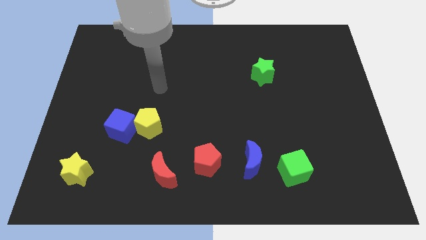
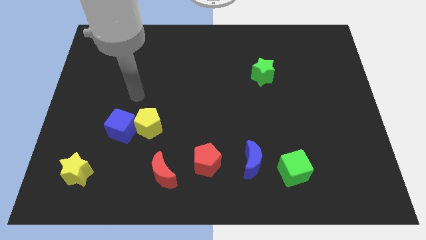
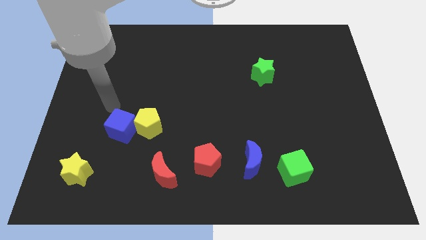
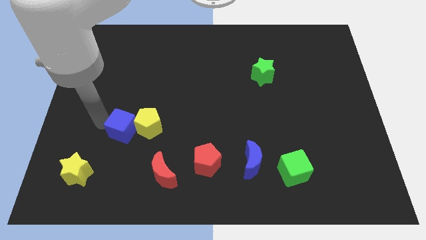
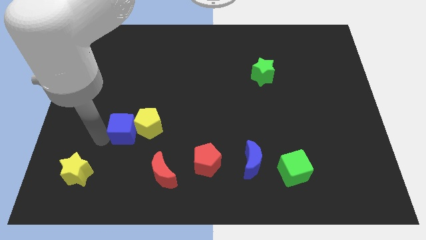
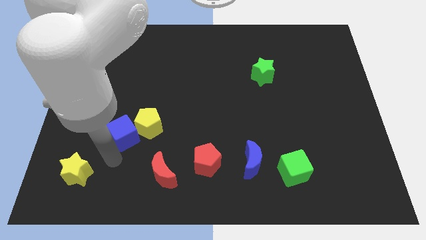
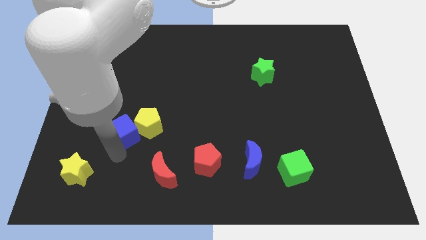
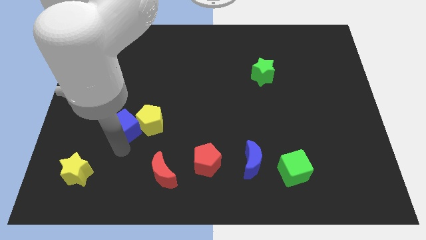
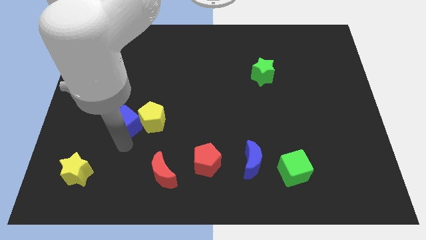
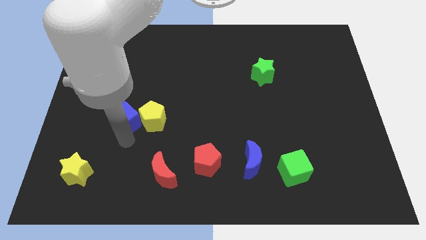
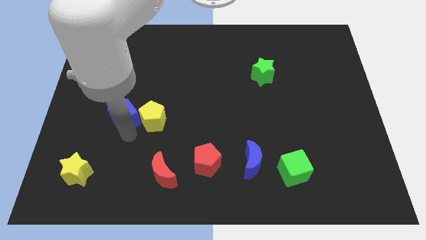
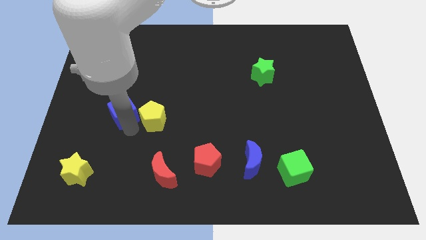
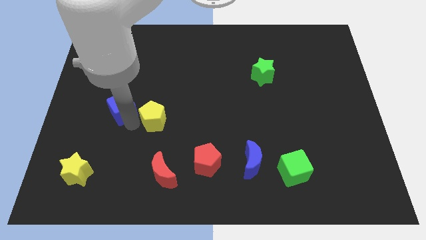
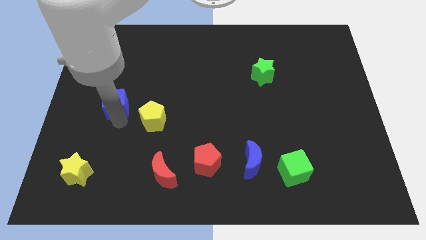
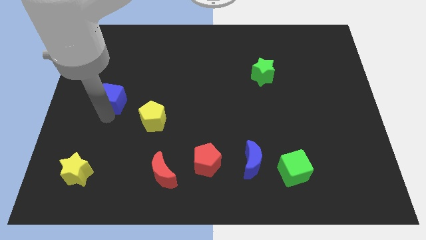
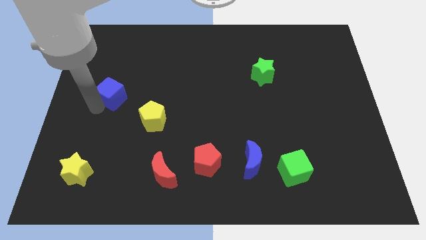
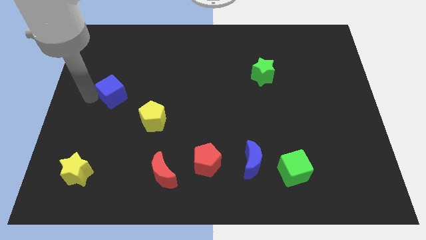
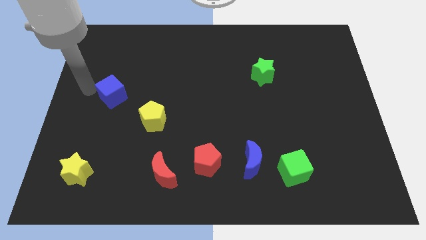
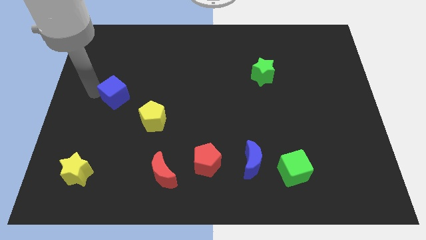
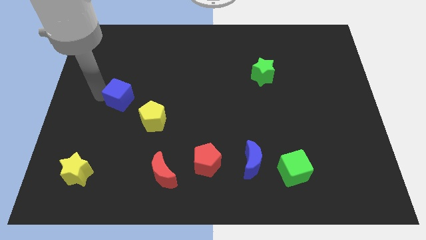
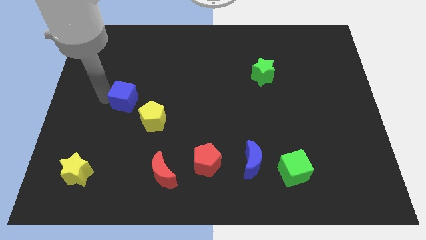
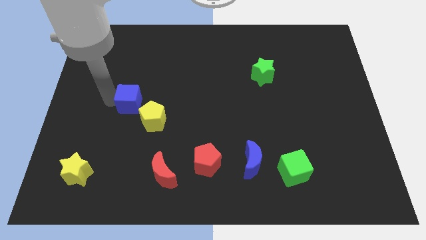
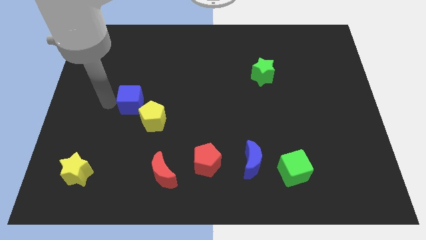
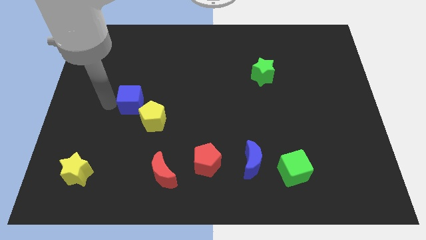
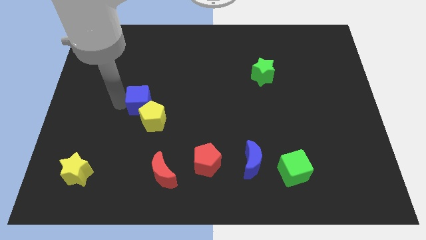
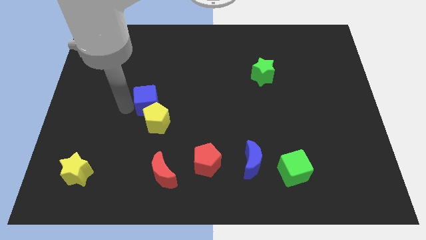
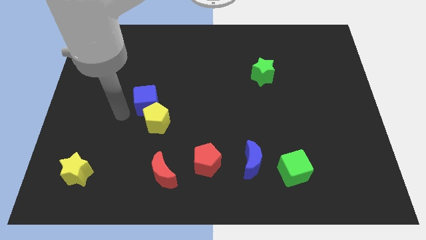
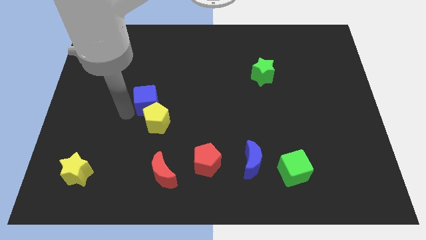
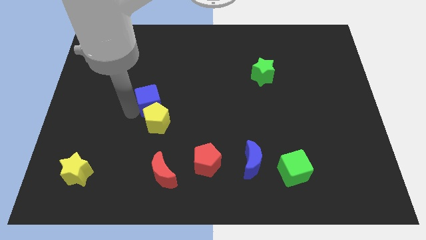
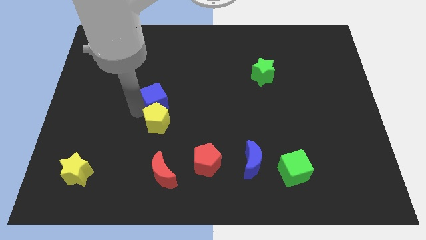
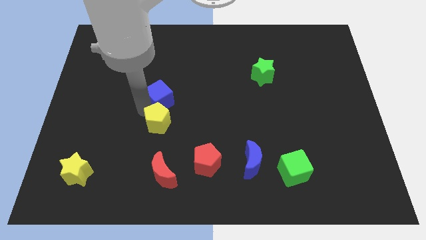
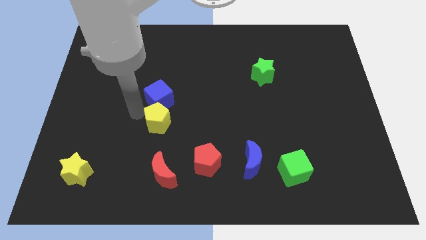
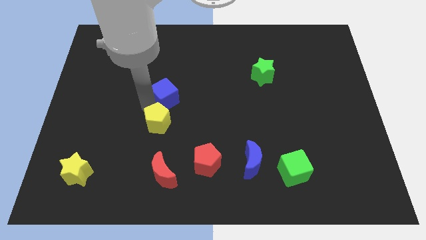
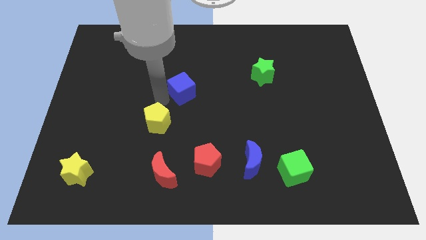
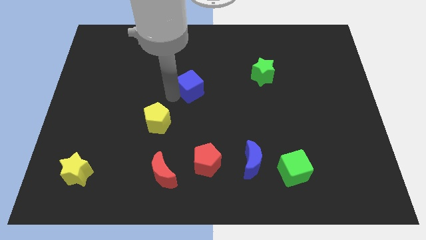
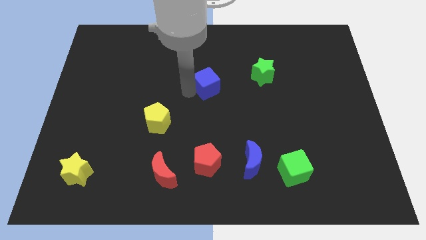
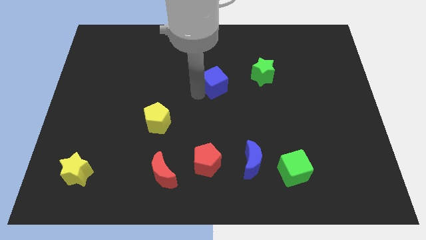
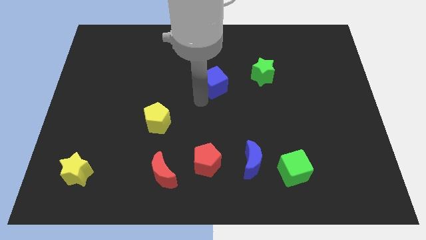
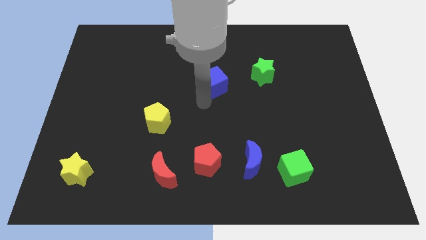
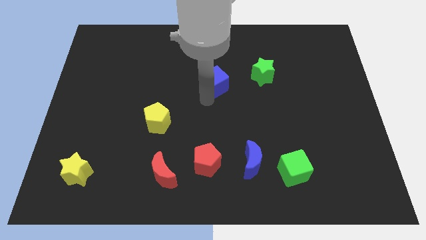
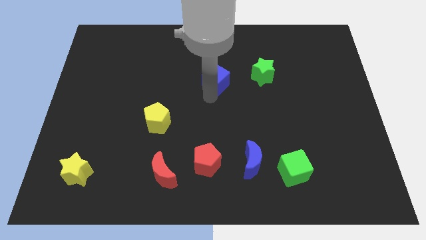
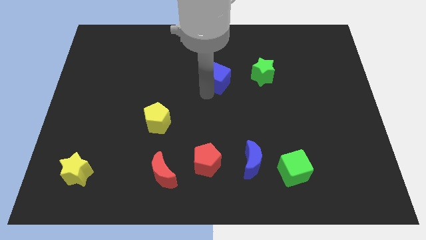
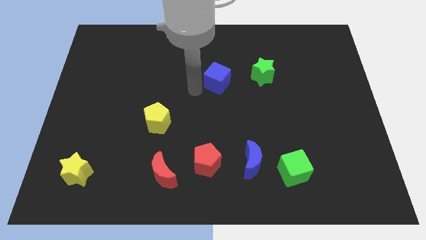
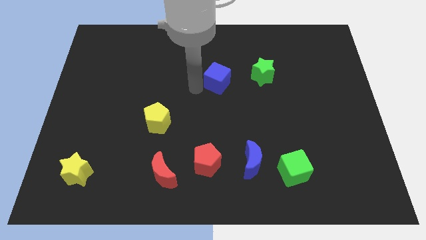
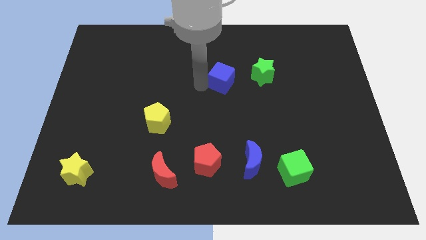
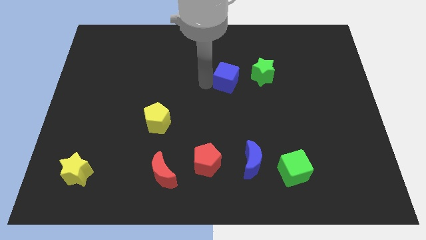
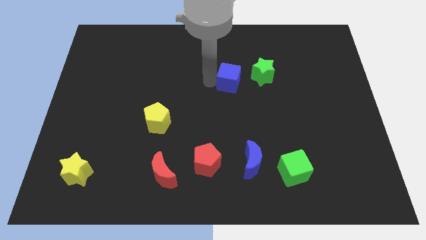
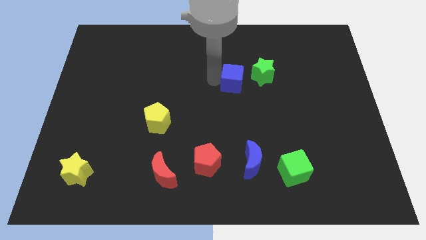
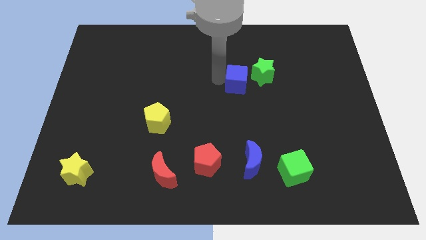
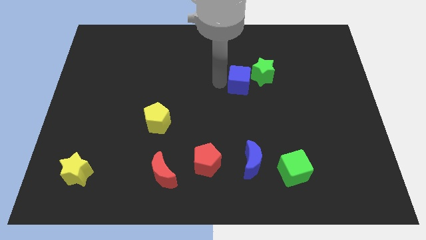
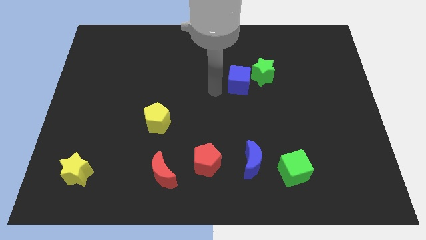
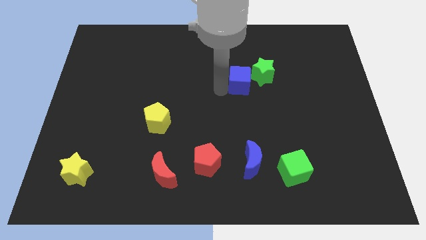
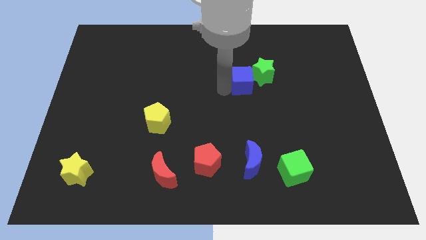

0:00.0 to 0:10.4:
move the blue cube close to the green star
